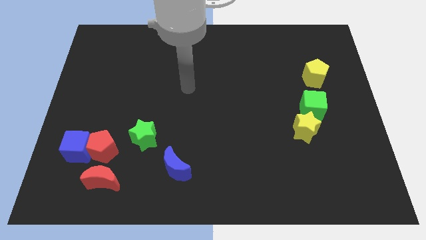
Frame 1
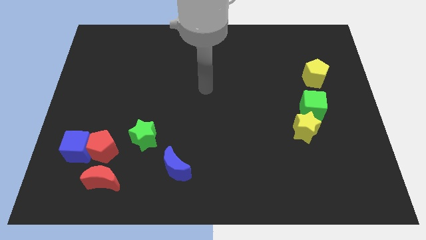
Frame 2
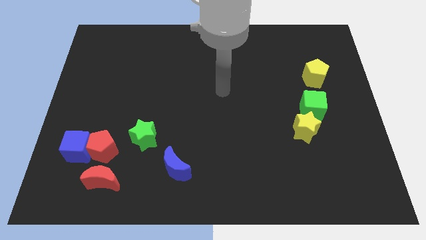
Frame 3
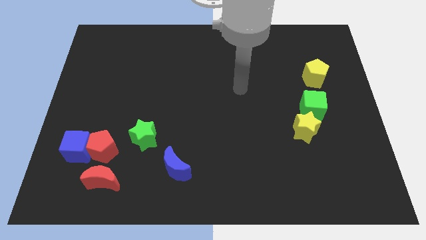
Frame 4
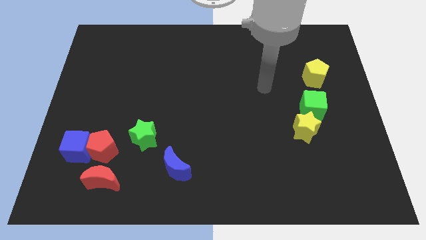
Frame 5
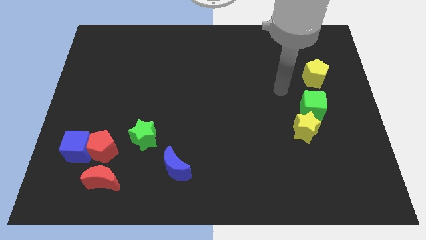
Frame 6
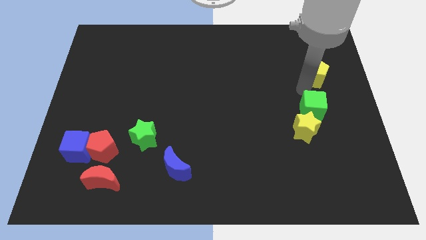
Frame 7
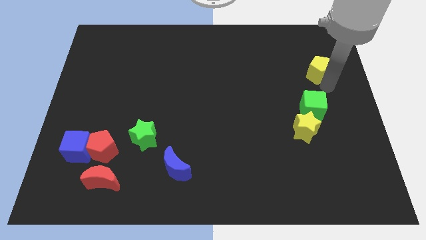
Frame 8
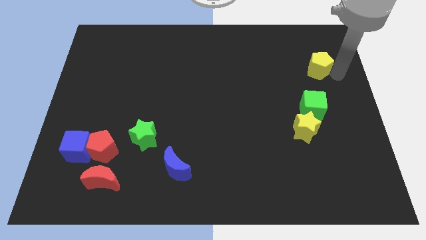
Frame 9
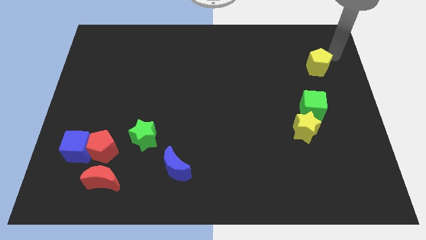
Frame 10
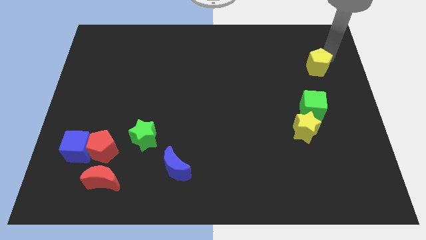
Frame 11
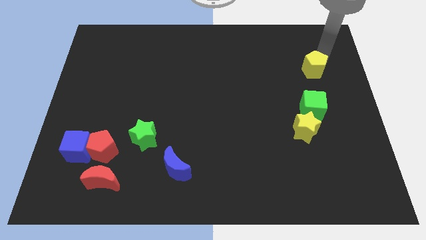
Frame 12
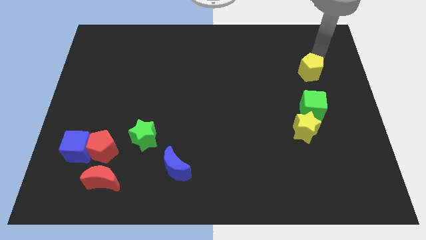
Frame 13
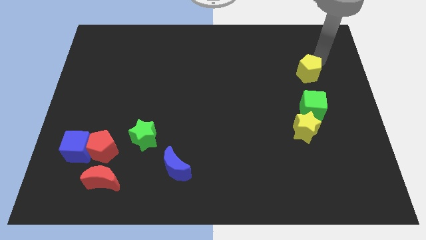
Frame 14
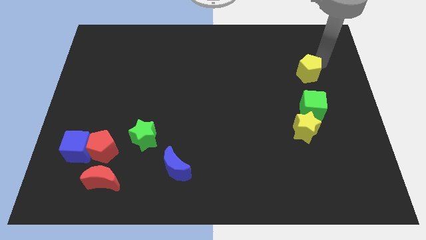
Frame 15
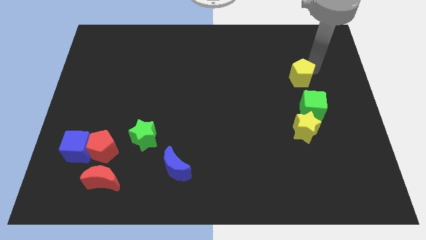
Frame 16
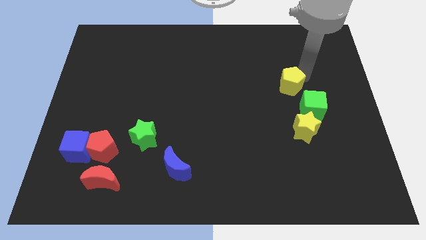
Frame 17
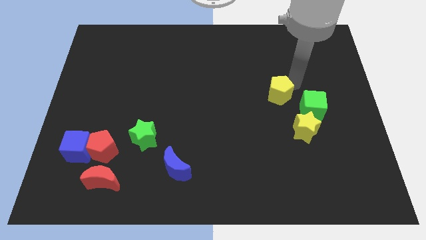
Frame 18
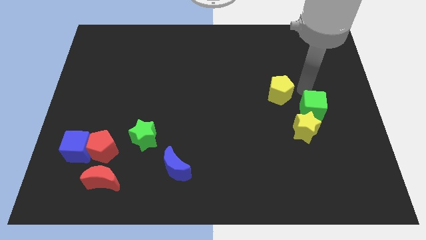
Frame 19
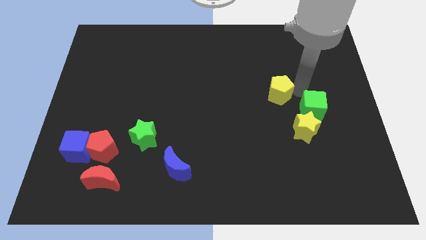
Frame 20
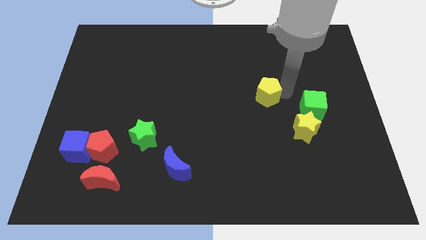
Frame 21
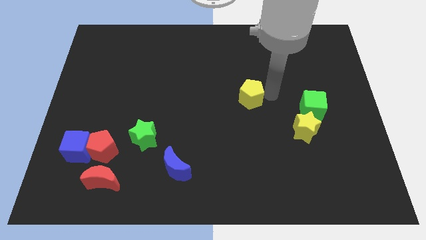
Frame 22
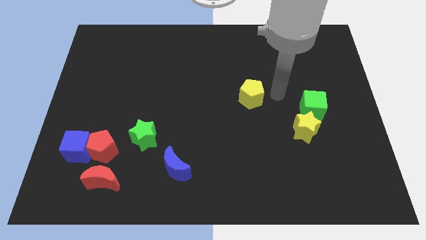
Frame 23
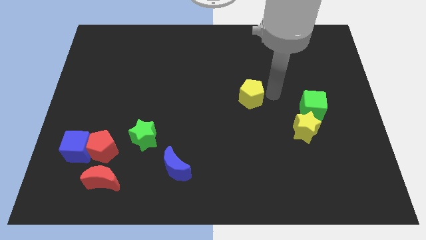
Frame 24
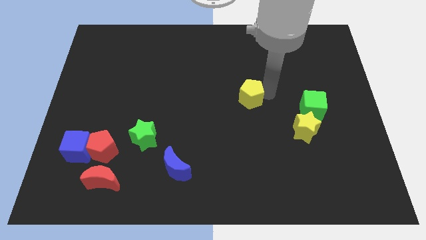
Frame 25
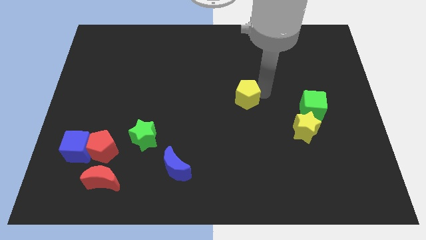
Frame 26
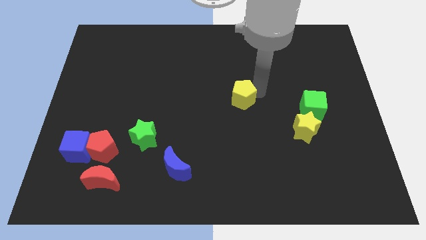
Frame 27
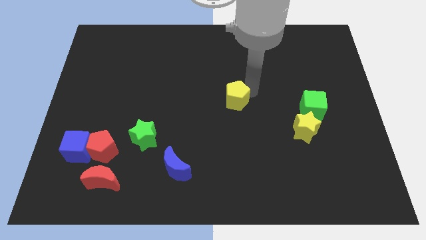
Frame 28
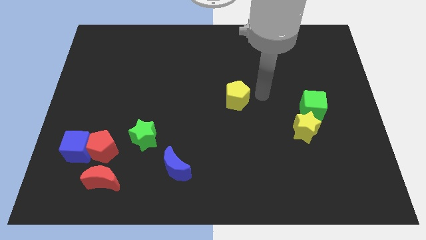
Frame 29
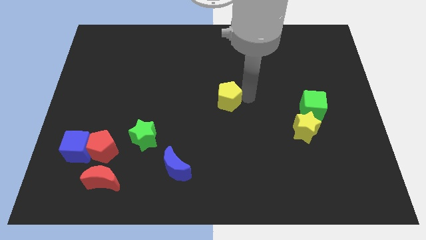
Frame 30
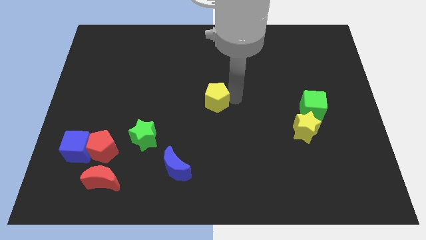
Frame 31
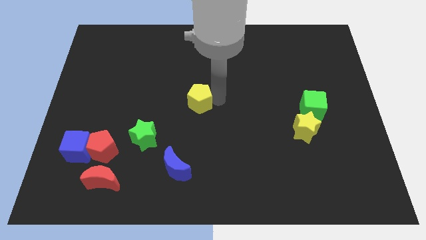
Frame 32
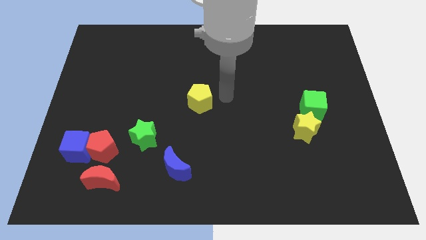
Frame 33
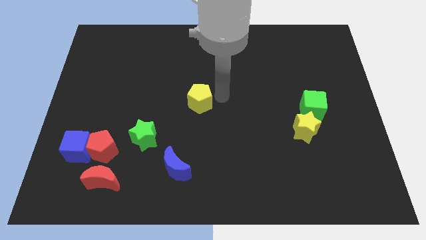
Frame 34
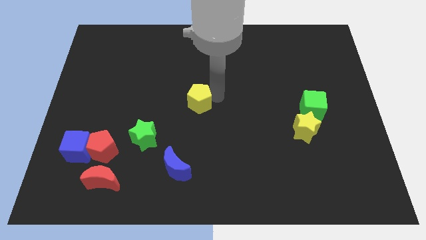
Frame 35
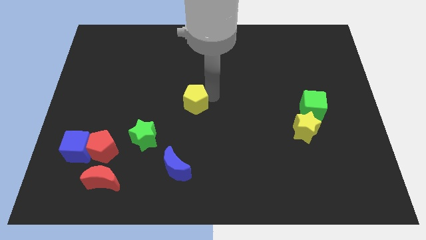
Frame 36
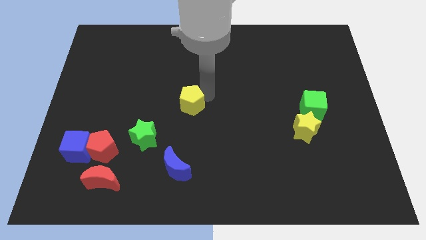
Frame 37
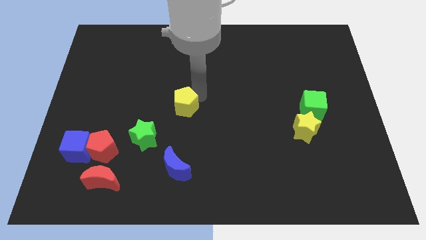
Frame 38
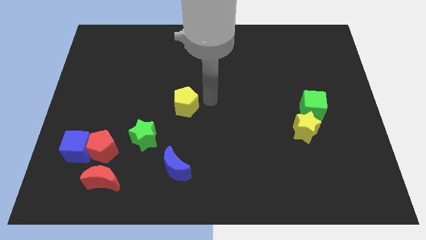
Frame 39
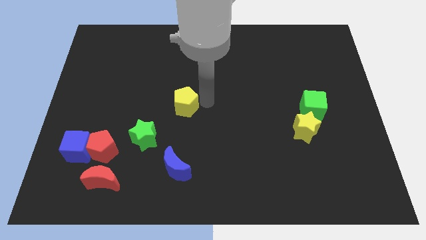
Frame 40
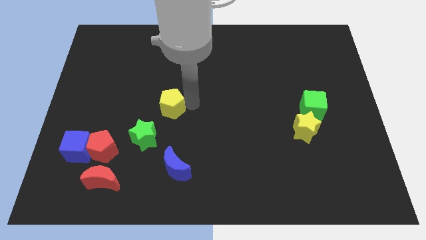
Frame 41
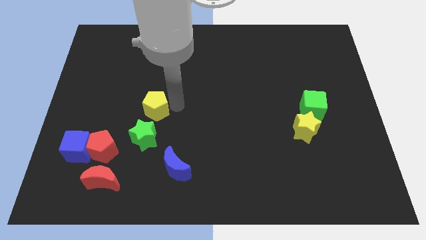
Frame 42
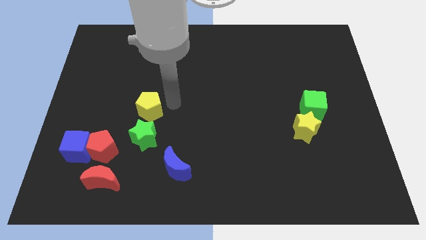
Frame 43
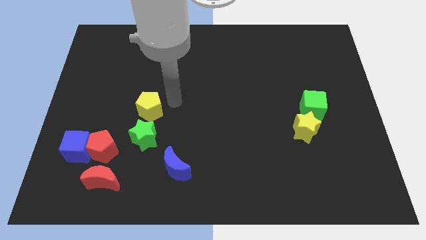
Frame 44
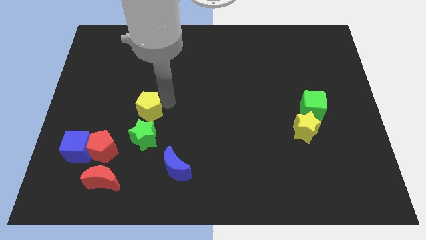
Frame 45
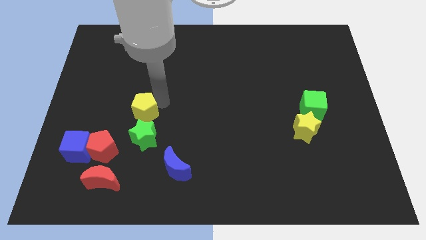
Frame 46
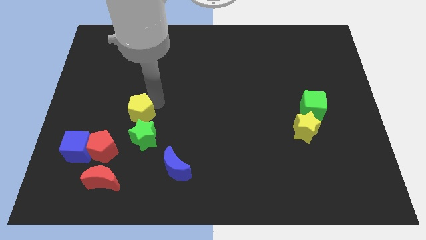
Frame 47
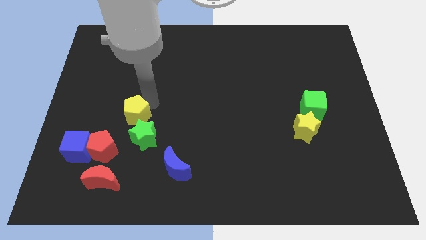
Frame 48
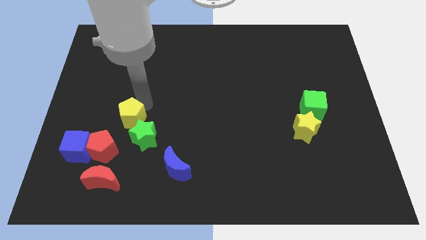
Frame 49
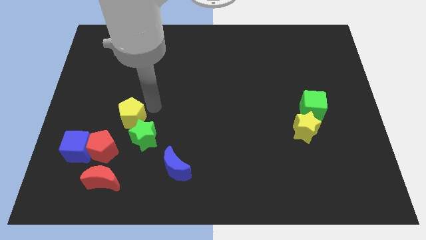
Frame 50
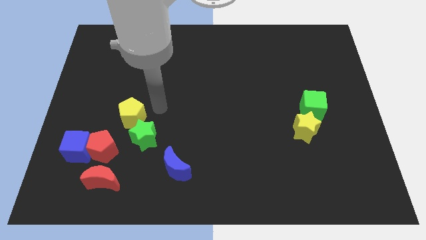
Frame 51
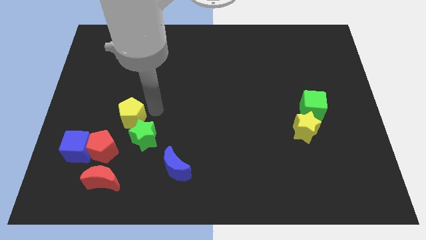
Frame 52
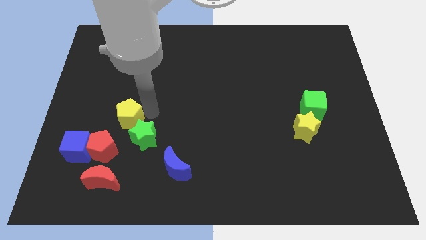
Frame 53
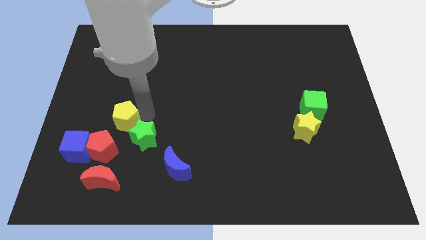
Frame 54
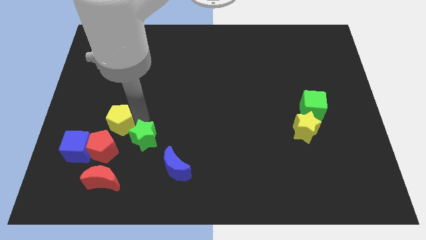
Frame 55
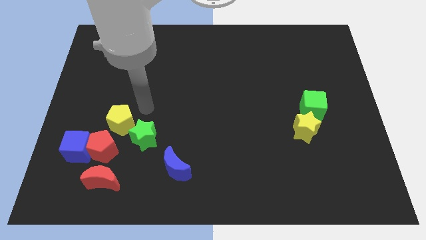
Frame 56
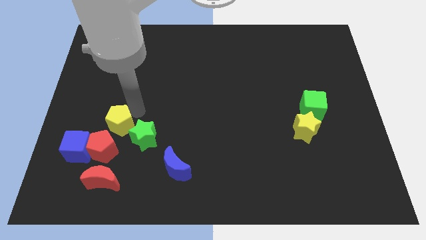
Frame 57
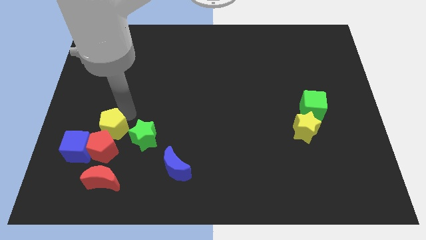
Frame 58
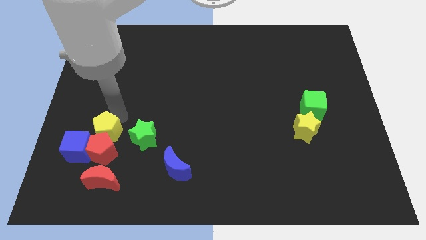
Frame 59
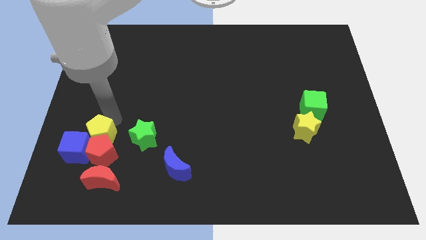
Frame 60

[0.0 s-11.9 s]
put the yellow pentagon to the blue cube

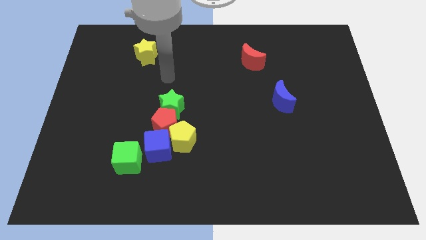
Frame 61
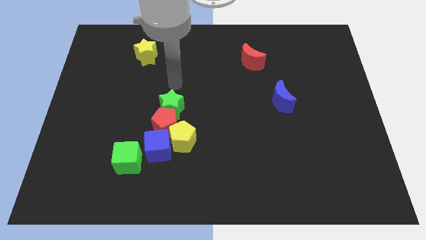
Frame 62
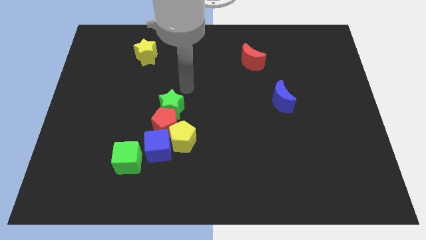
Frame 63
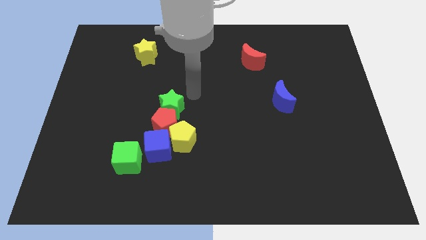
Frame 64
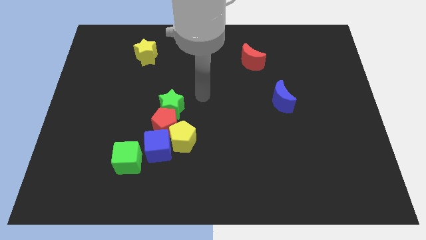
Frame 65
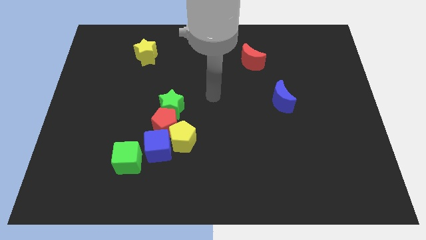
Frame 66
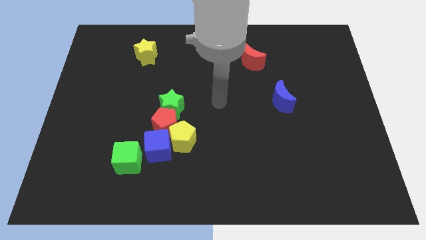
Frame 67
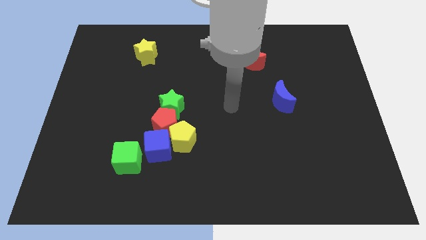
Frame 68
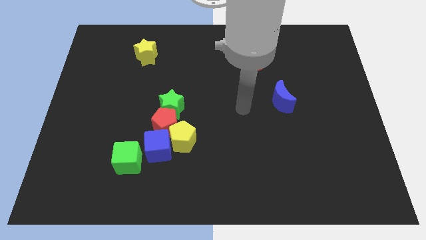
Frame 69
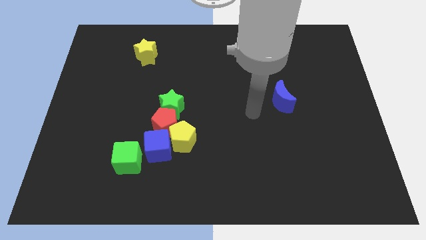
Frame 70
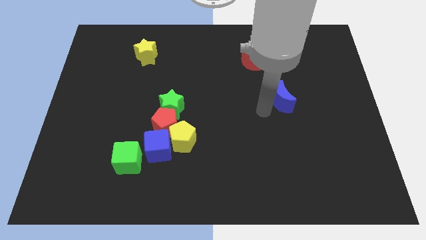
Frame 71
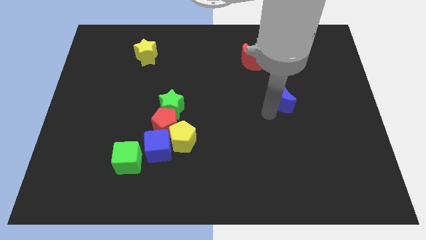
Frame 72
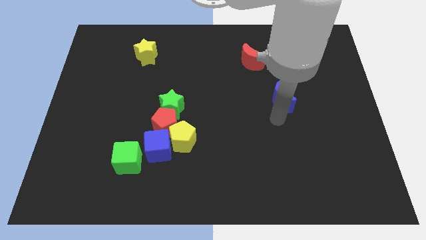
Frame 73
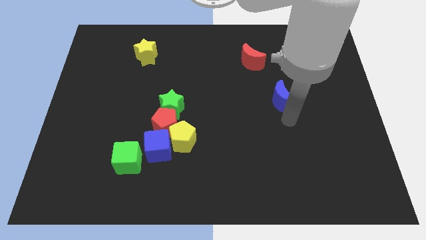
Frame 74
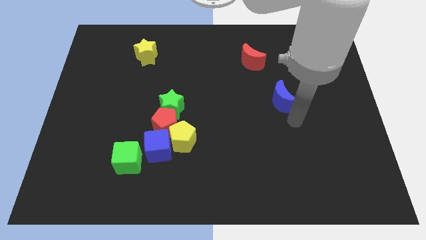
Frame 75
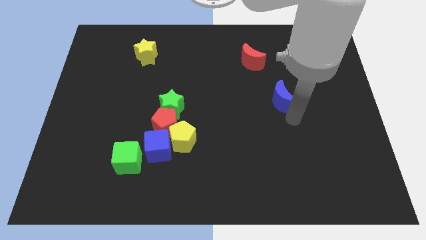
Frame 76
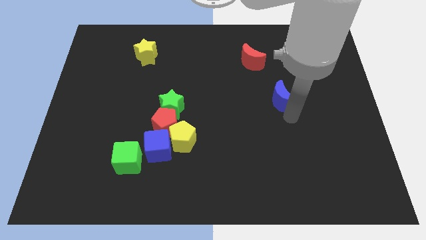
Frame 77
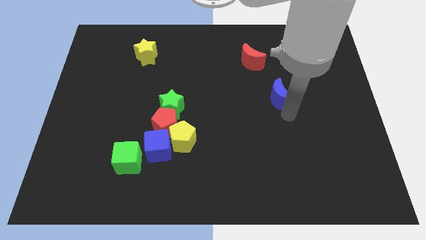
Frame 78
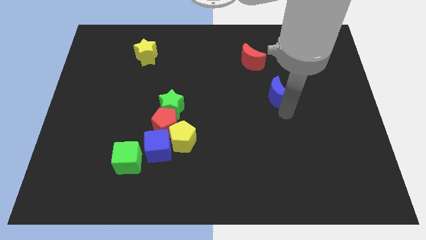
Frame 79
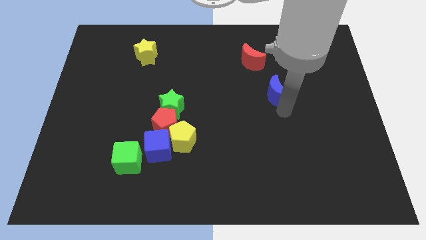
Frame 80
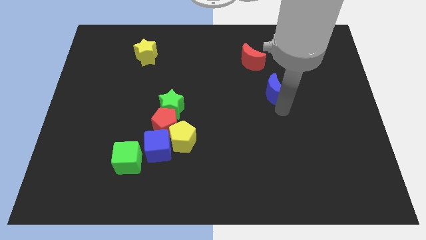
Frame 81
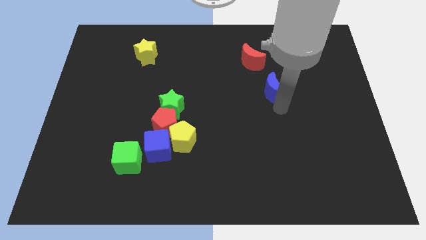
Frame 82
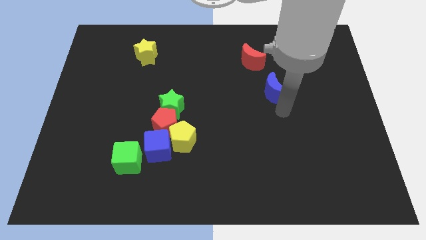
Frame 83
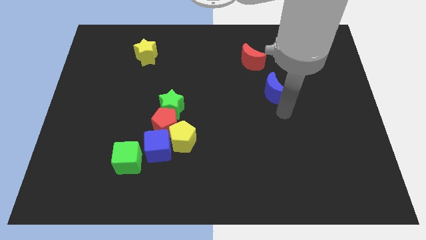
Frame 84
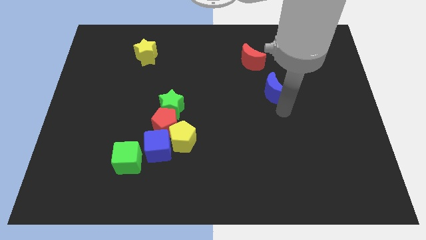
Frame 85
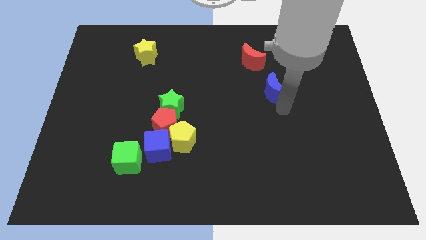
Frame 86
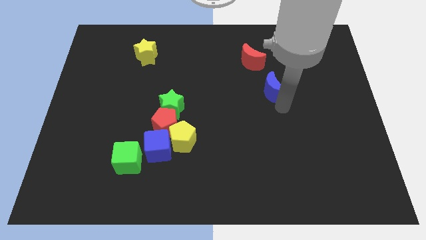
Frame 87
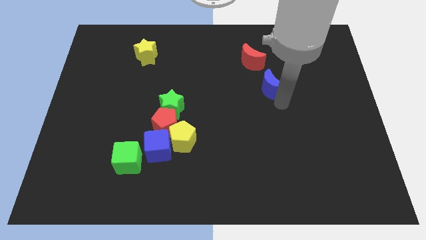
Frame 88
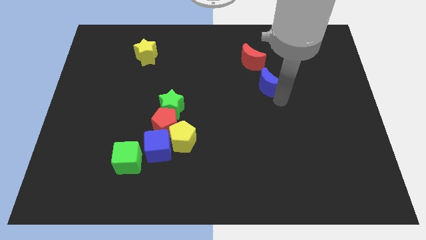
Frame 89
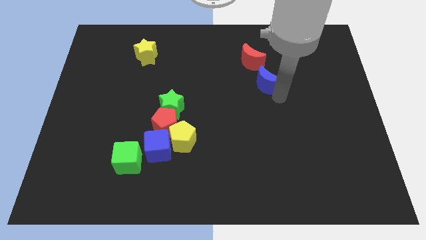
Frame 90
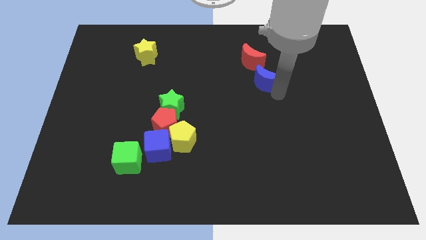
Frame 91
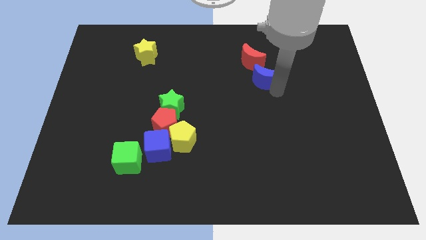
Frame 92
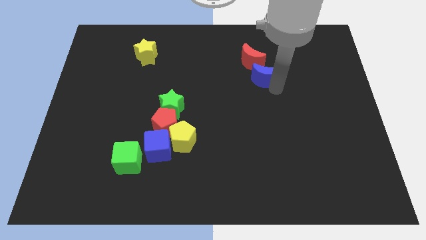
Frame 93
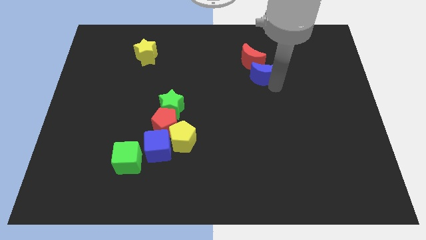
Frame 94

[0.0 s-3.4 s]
move the blue moon to the red moon
